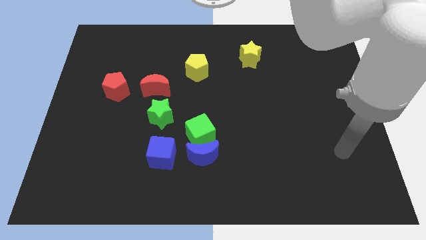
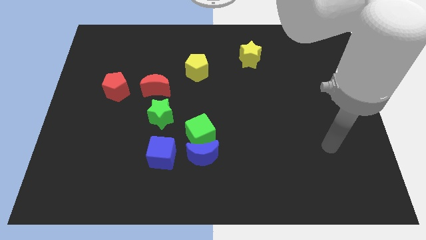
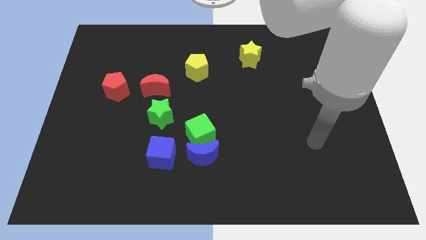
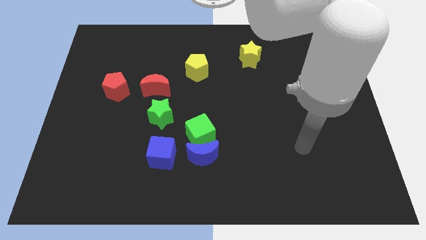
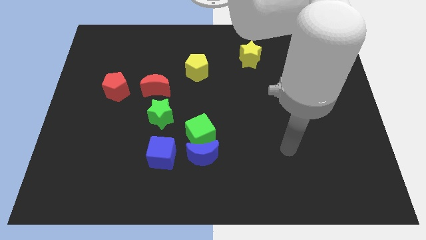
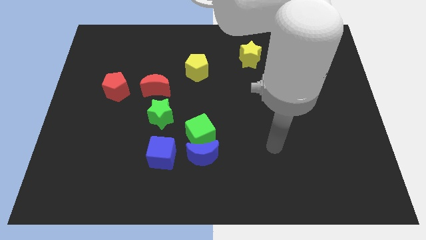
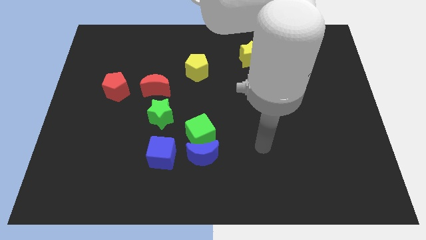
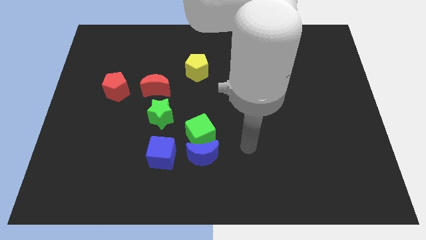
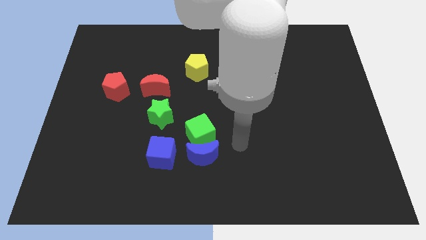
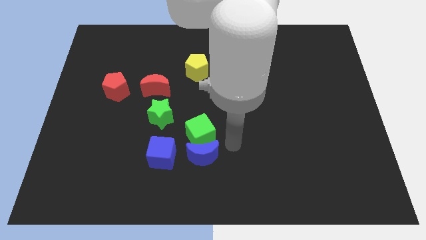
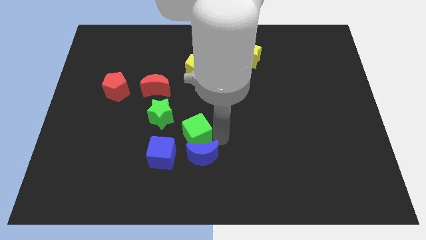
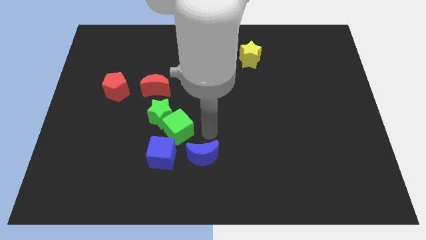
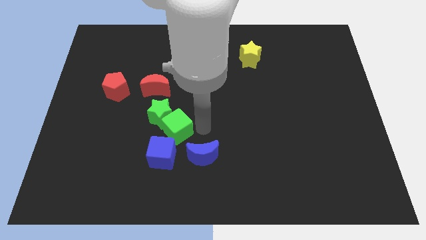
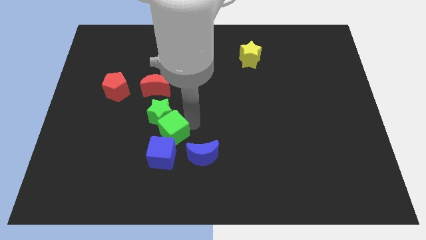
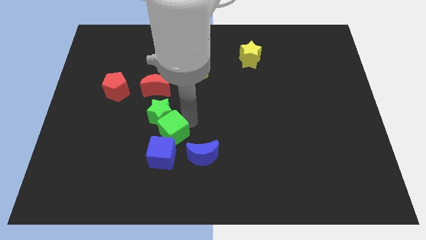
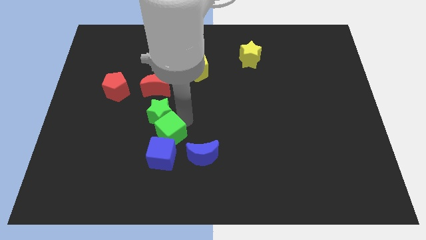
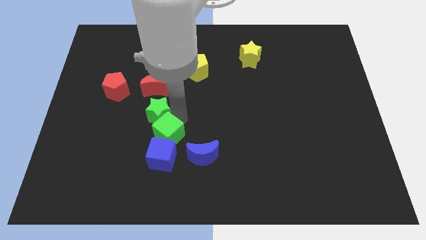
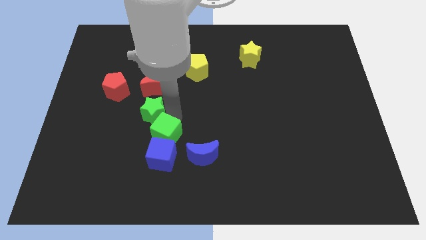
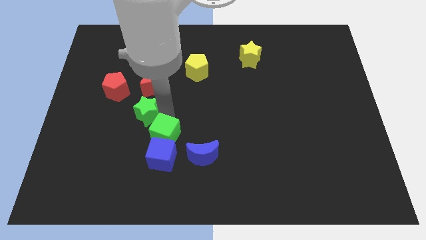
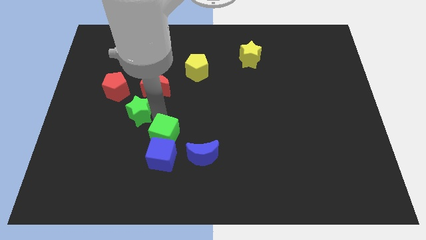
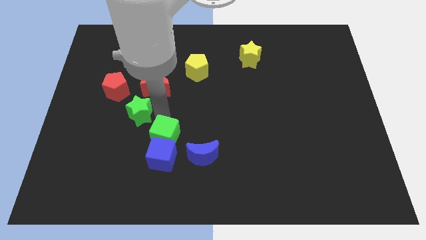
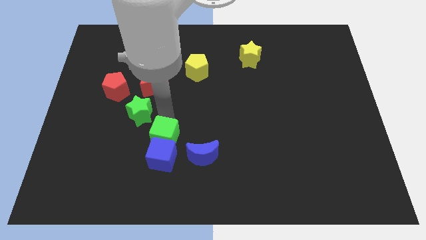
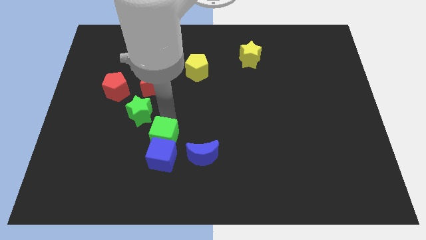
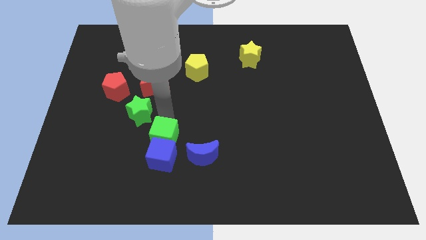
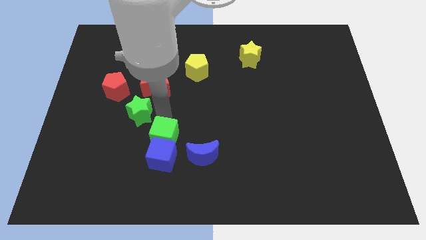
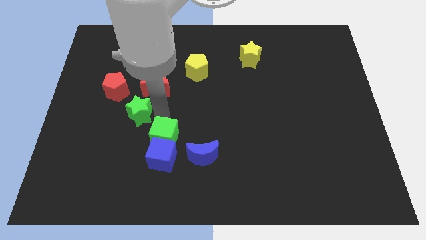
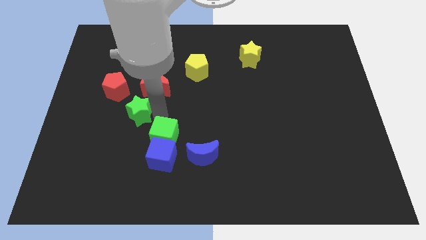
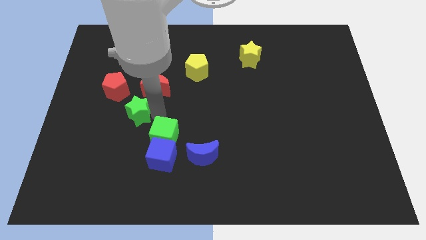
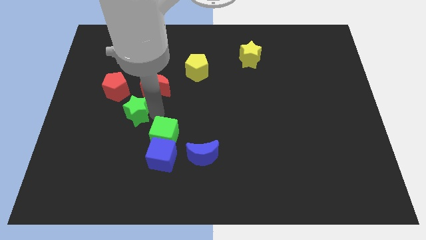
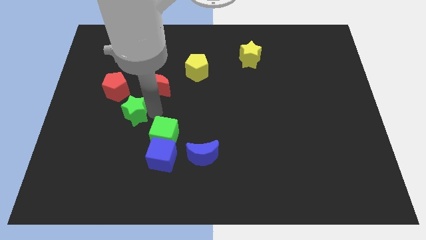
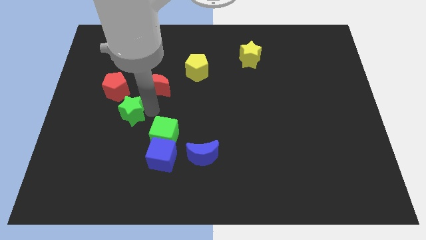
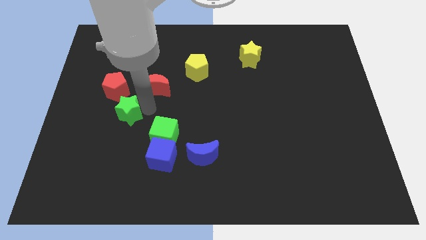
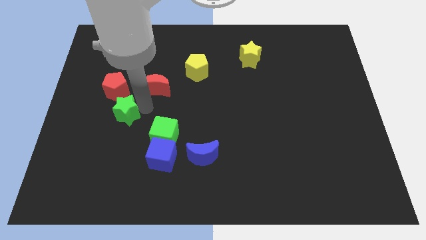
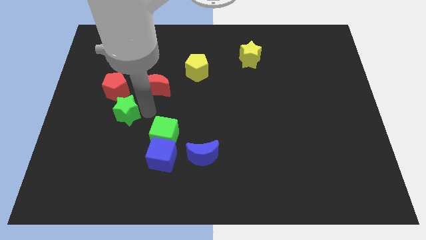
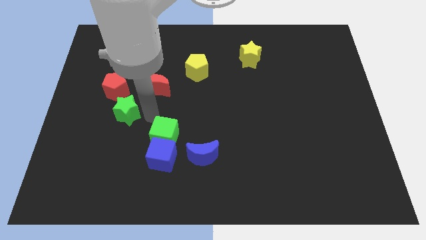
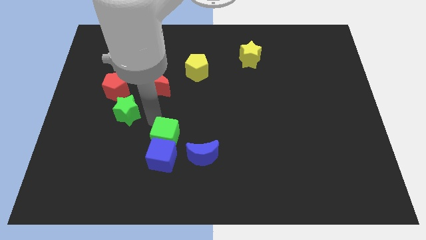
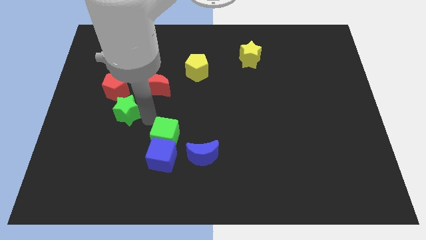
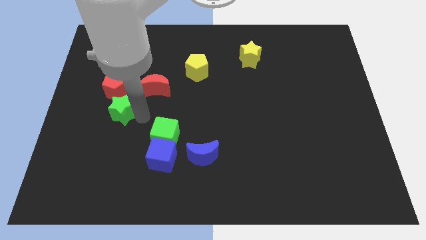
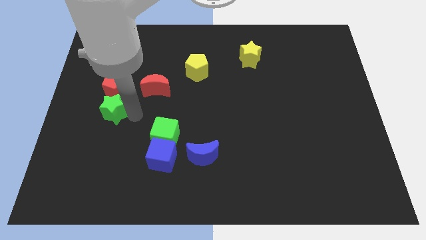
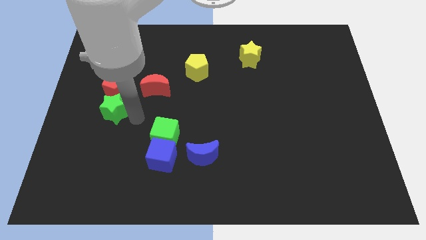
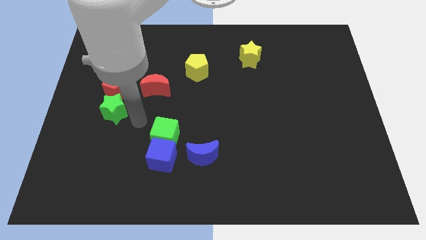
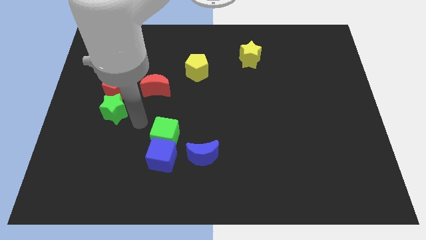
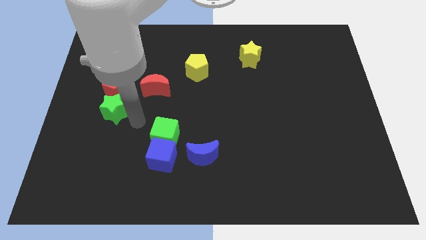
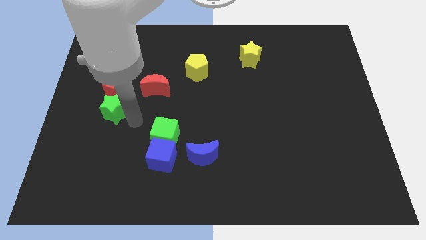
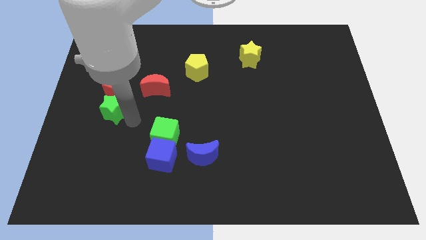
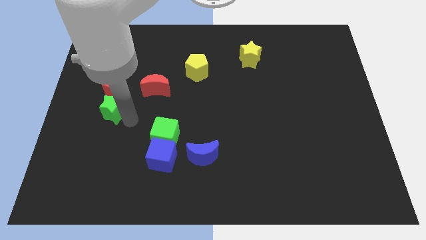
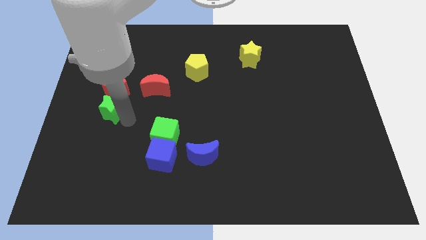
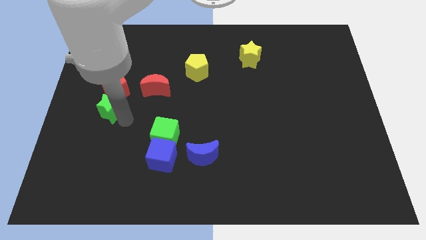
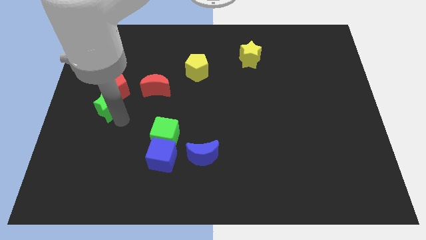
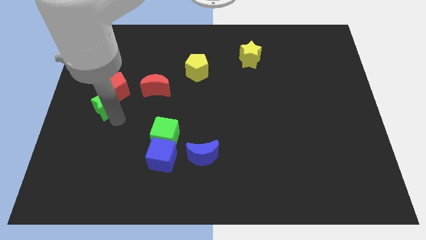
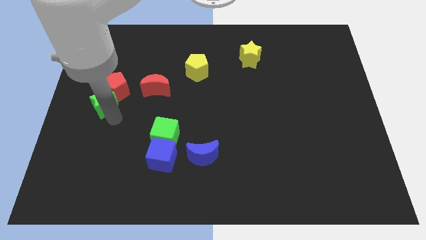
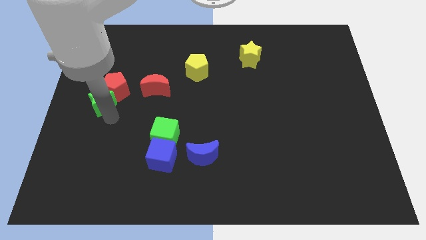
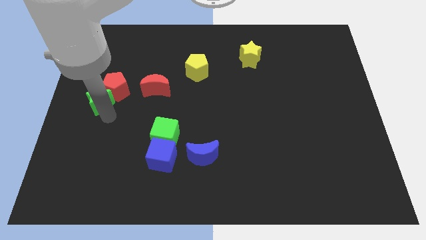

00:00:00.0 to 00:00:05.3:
put the green star left of the red moon
